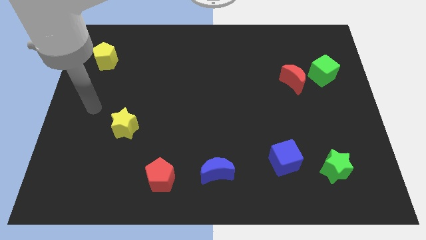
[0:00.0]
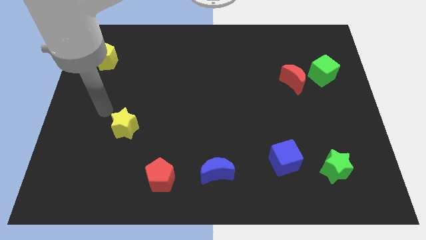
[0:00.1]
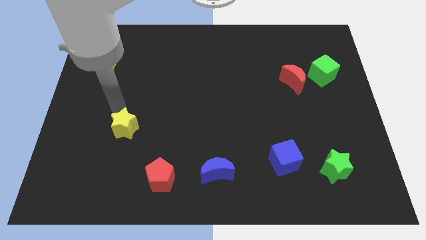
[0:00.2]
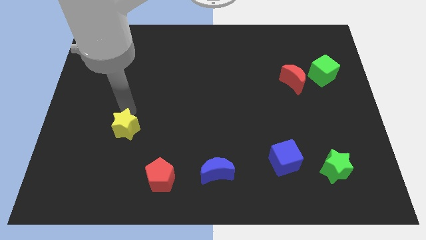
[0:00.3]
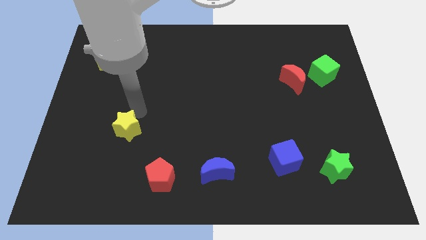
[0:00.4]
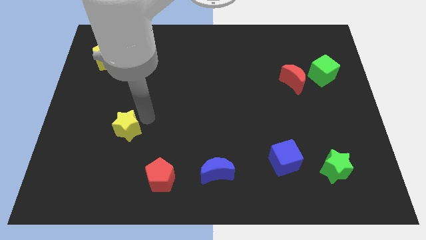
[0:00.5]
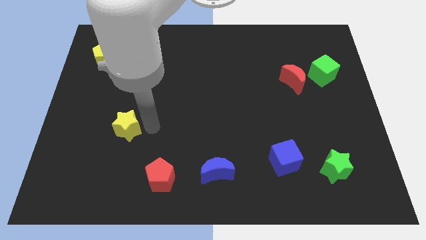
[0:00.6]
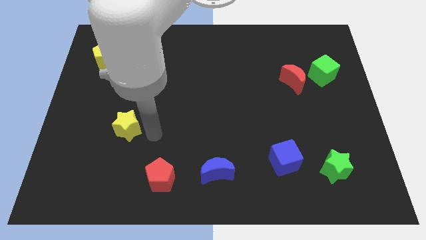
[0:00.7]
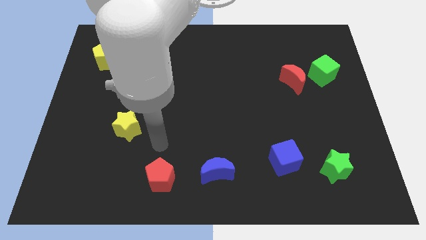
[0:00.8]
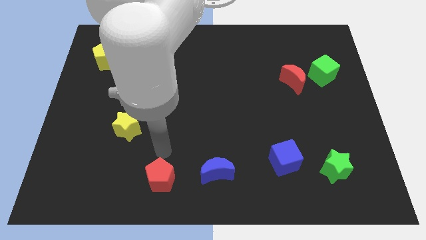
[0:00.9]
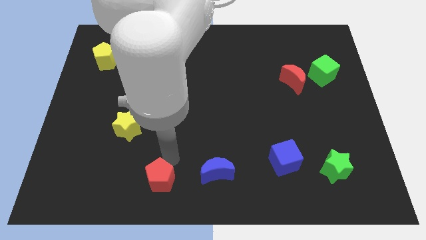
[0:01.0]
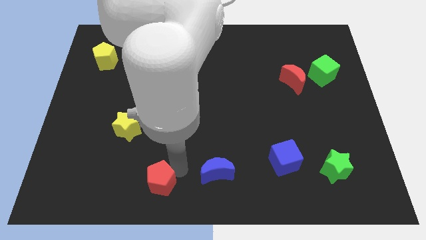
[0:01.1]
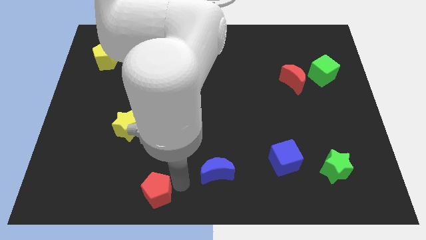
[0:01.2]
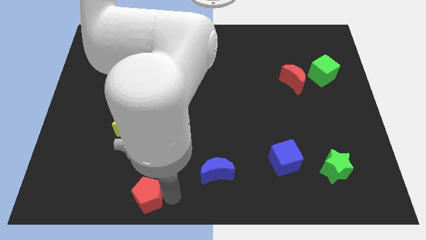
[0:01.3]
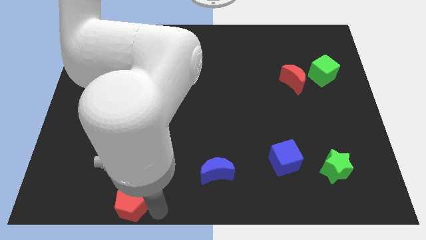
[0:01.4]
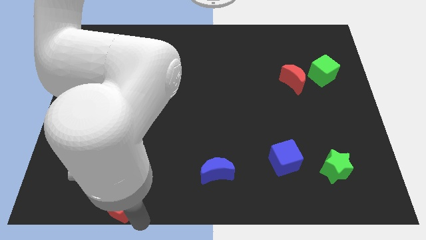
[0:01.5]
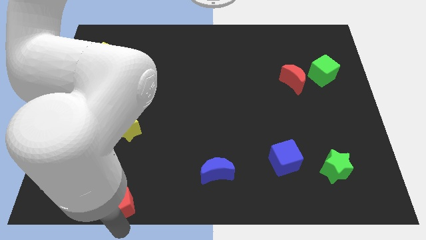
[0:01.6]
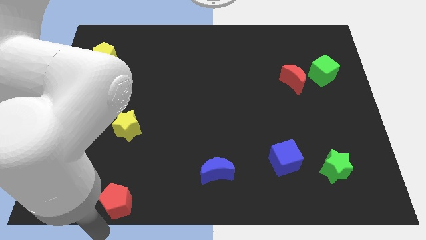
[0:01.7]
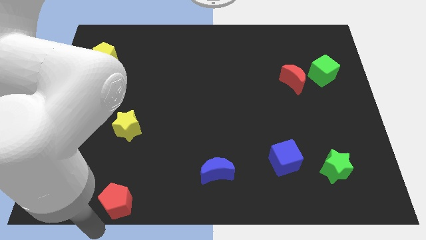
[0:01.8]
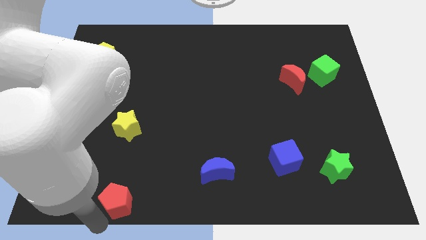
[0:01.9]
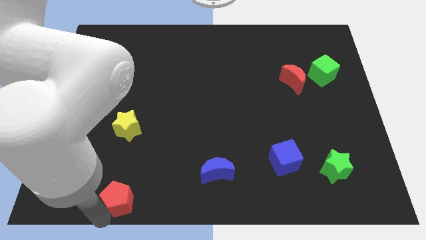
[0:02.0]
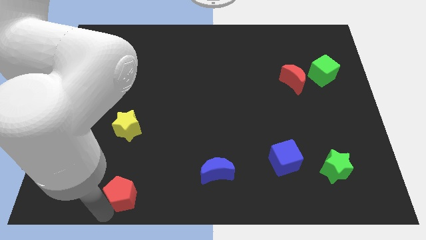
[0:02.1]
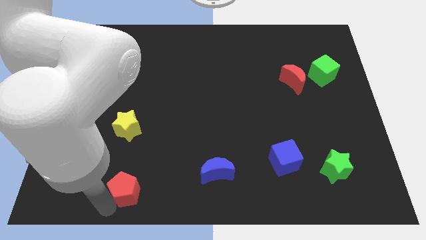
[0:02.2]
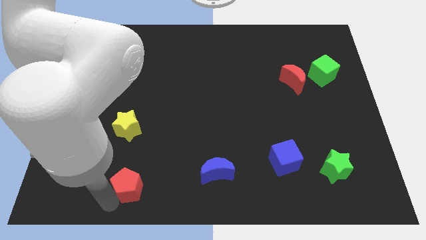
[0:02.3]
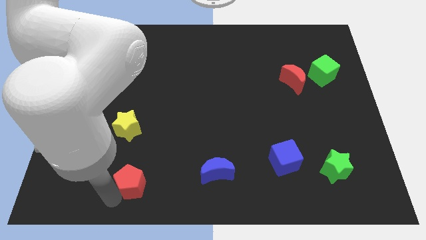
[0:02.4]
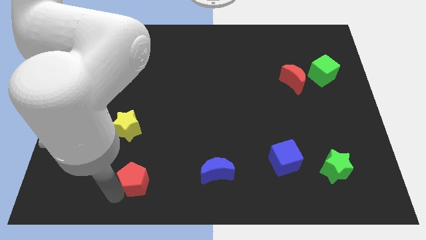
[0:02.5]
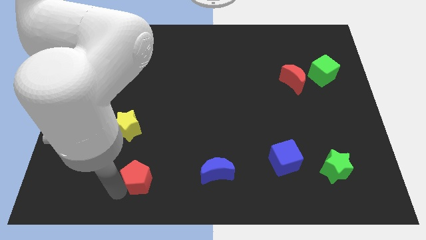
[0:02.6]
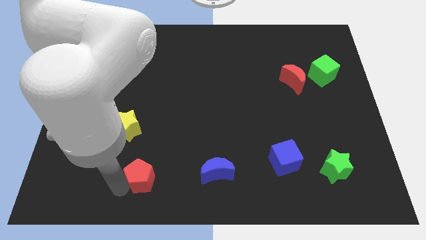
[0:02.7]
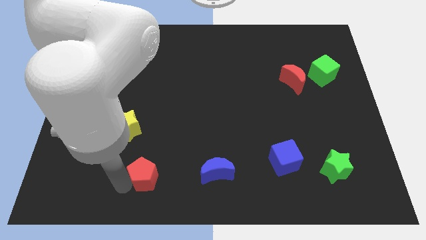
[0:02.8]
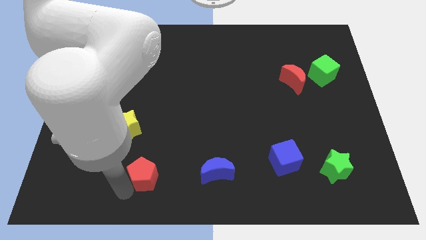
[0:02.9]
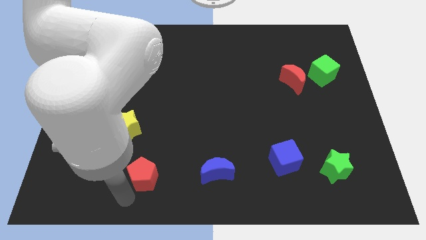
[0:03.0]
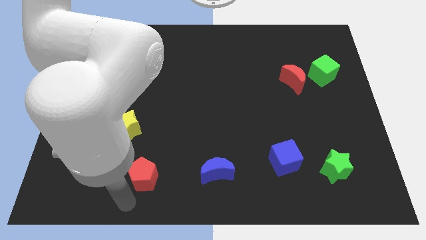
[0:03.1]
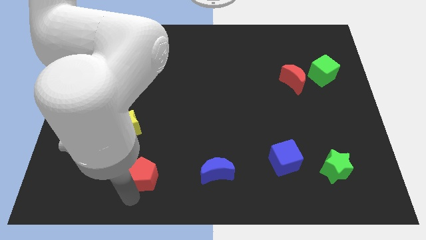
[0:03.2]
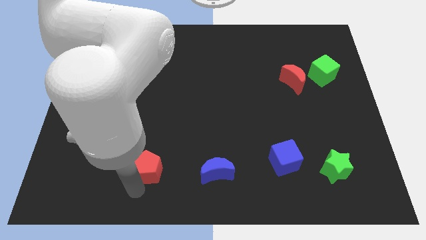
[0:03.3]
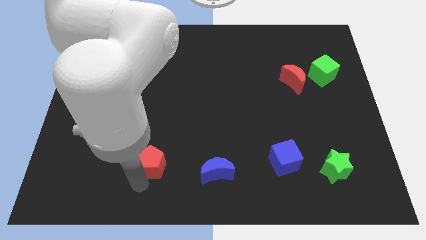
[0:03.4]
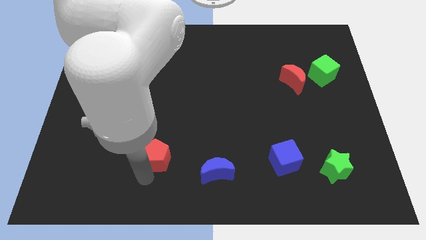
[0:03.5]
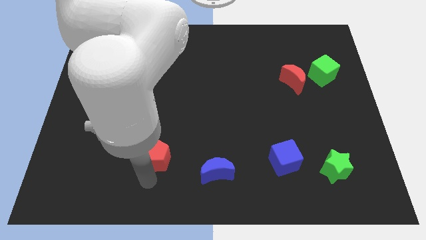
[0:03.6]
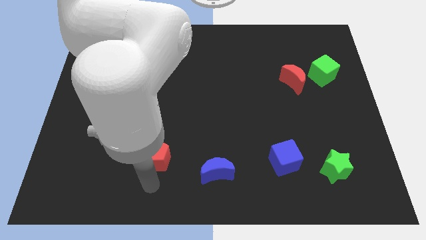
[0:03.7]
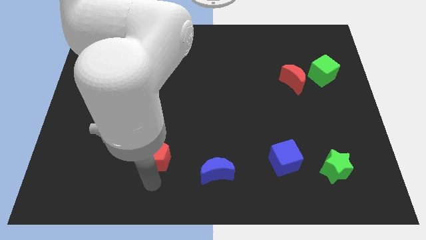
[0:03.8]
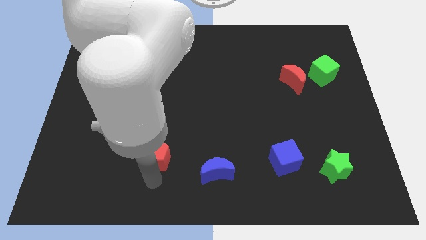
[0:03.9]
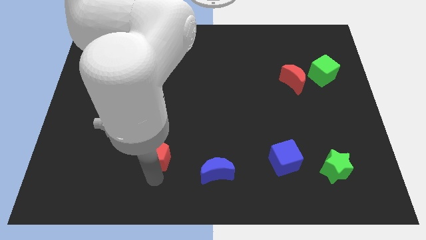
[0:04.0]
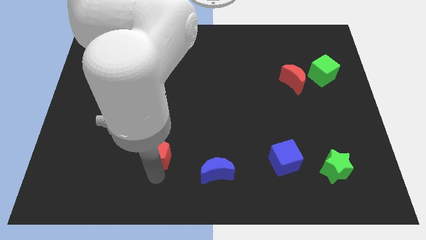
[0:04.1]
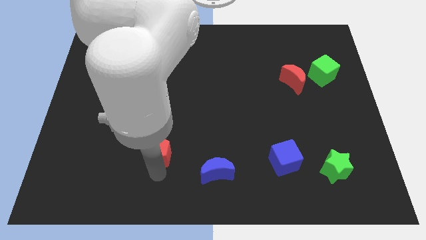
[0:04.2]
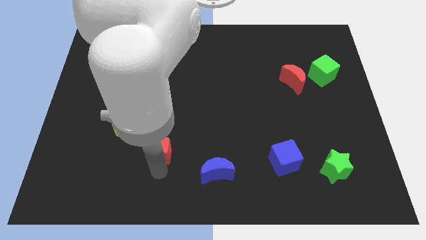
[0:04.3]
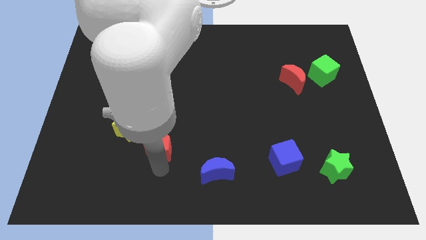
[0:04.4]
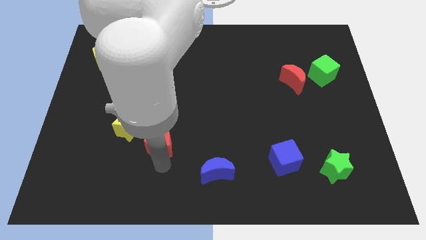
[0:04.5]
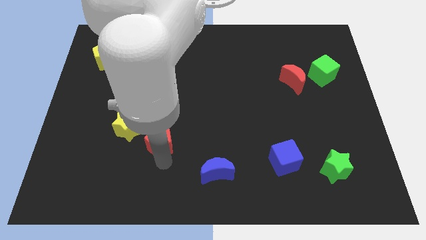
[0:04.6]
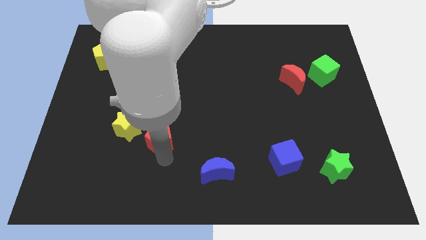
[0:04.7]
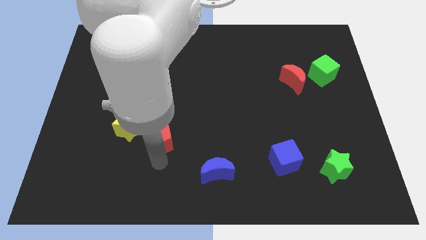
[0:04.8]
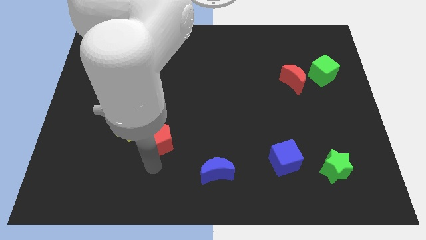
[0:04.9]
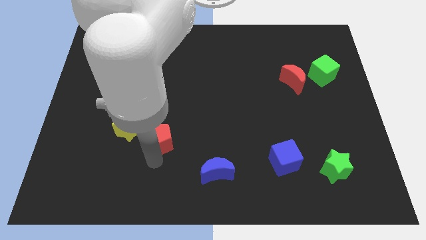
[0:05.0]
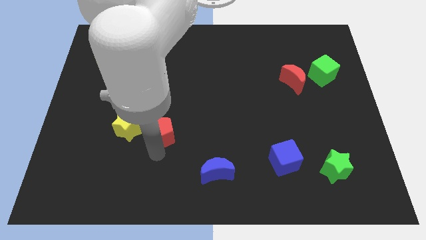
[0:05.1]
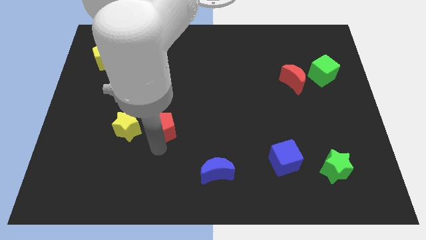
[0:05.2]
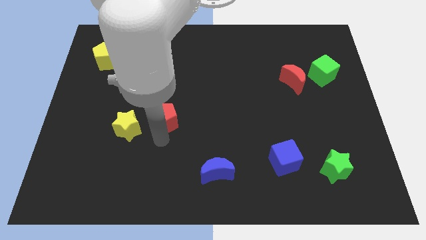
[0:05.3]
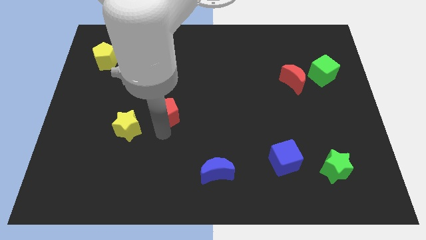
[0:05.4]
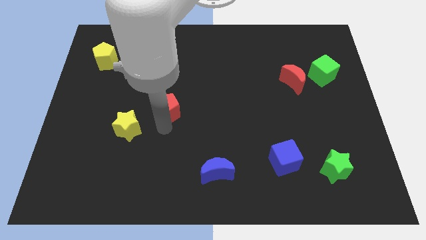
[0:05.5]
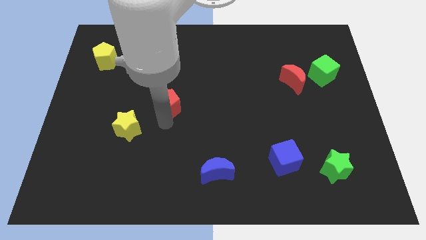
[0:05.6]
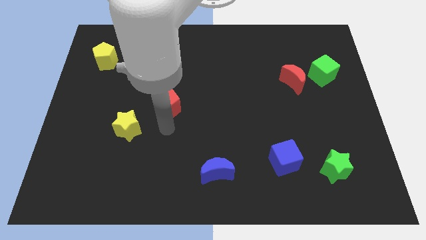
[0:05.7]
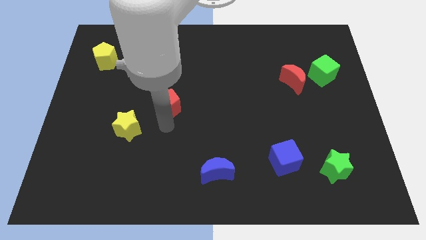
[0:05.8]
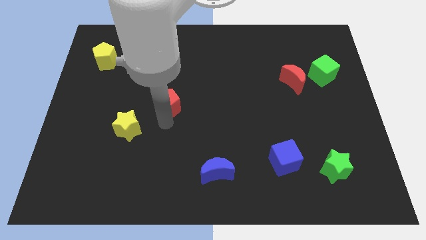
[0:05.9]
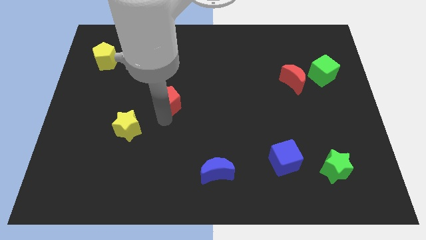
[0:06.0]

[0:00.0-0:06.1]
push the red pentagon upwards

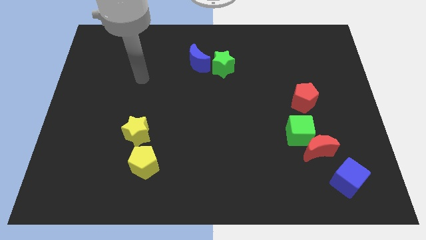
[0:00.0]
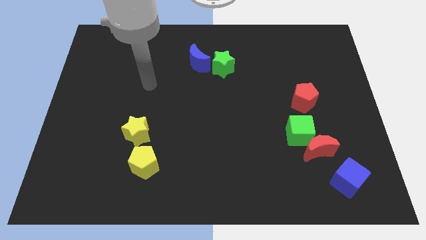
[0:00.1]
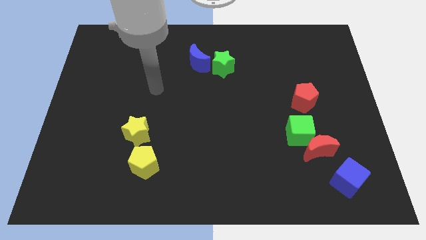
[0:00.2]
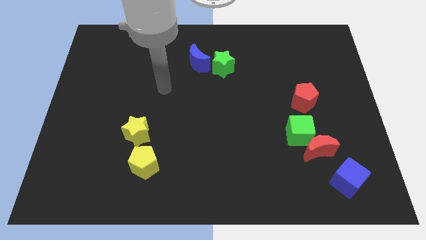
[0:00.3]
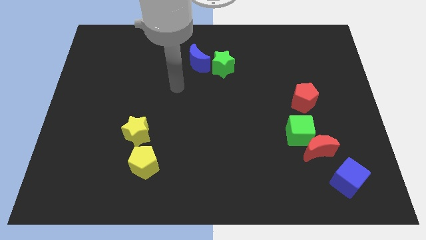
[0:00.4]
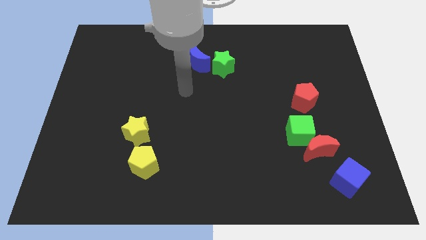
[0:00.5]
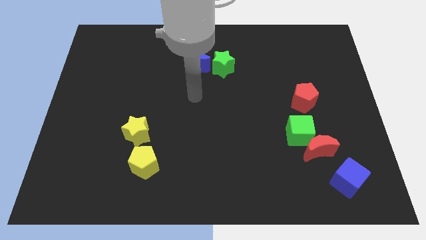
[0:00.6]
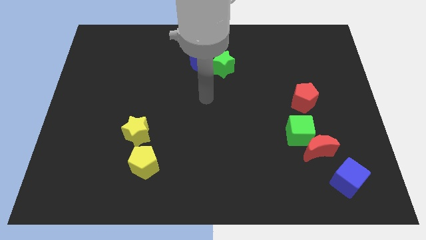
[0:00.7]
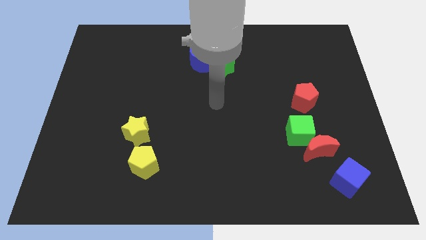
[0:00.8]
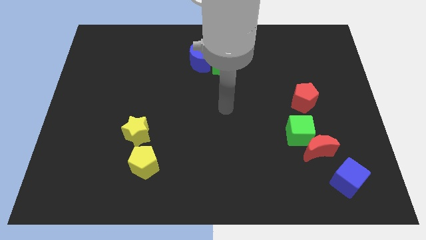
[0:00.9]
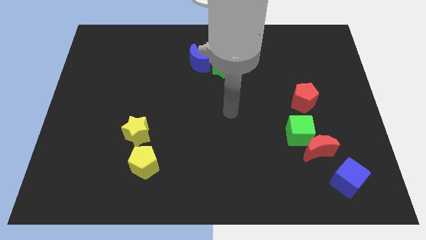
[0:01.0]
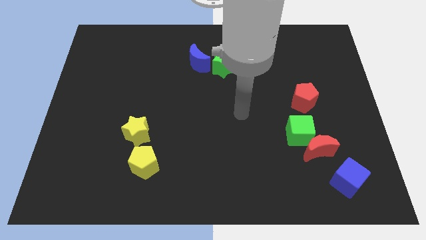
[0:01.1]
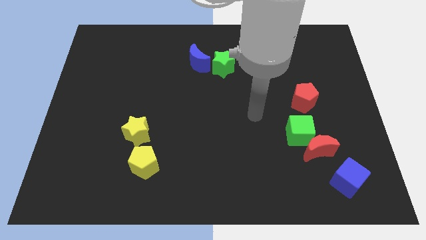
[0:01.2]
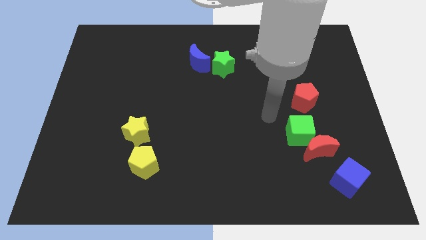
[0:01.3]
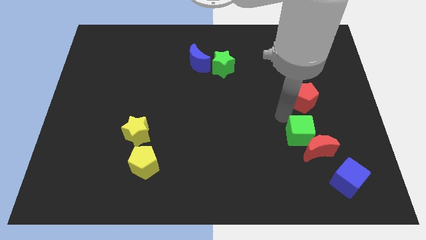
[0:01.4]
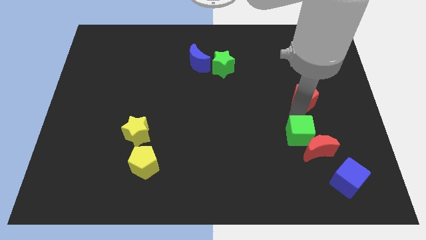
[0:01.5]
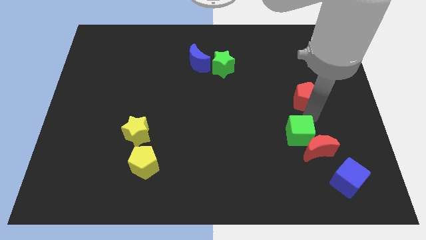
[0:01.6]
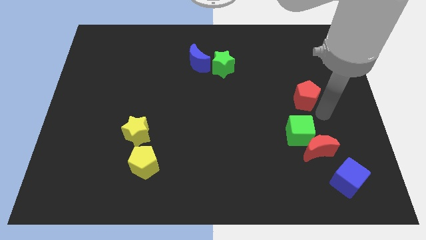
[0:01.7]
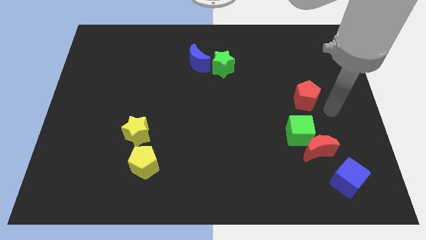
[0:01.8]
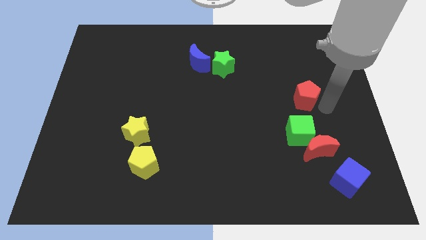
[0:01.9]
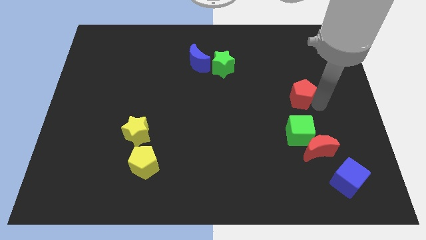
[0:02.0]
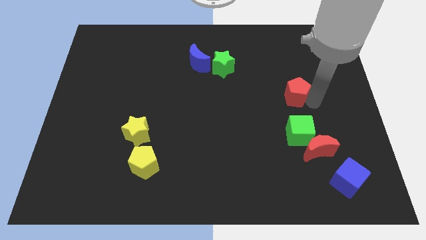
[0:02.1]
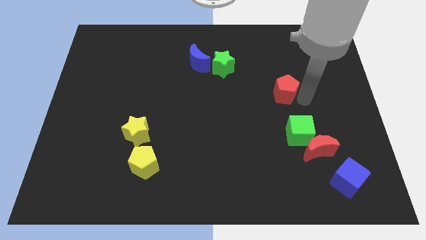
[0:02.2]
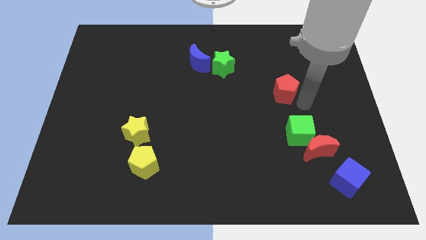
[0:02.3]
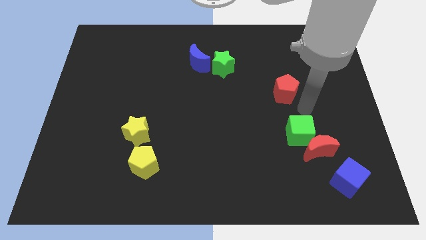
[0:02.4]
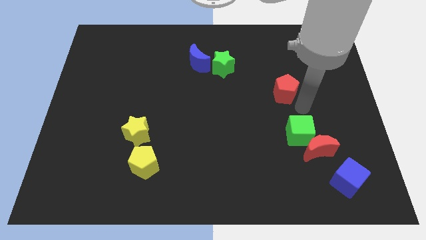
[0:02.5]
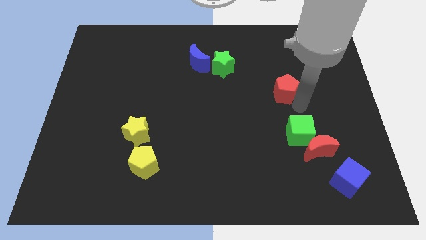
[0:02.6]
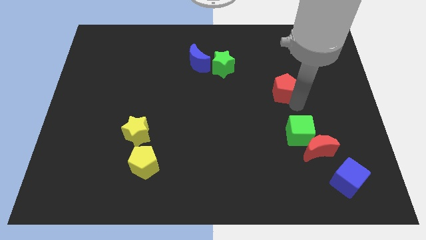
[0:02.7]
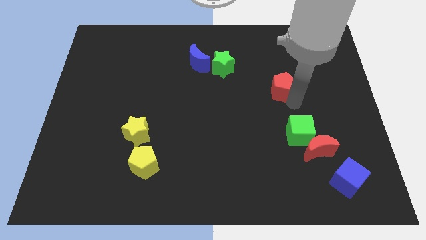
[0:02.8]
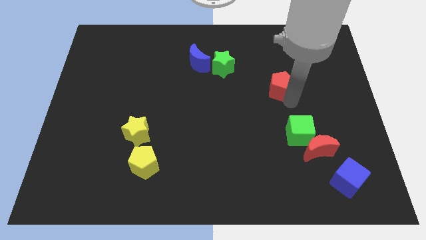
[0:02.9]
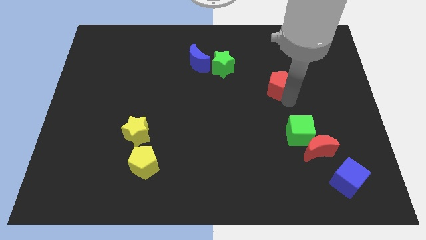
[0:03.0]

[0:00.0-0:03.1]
move the red pentagon slightly diagonally upwards and to the left
